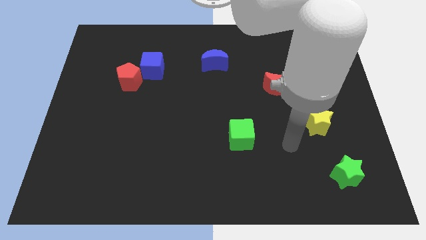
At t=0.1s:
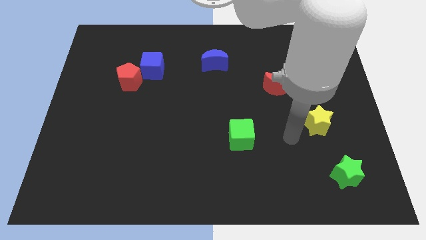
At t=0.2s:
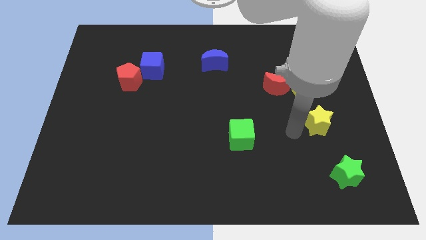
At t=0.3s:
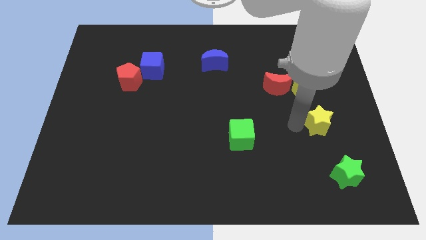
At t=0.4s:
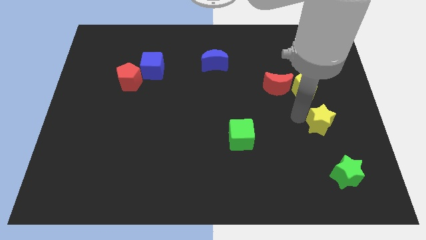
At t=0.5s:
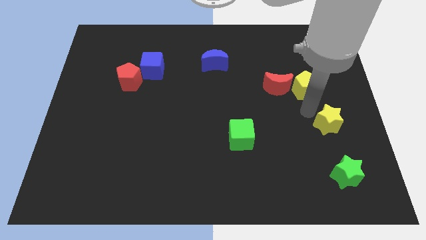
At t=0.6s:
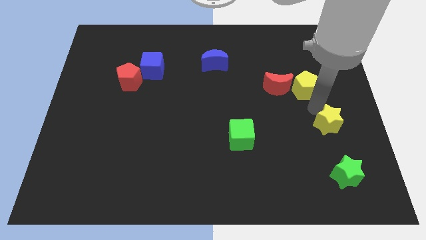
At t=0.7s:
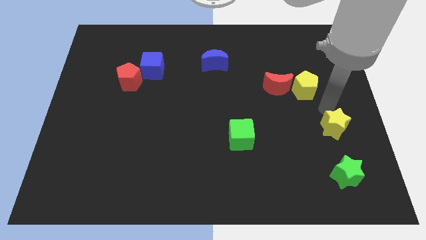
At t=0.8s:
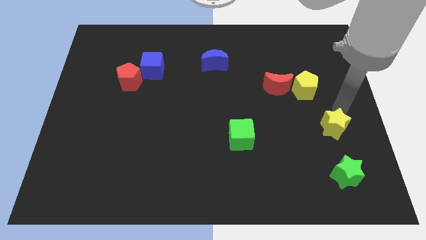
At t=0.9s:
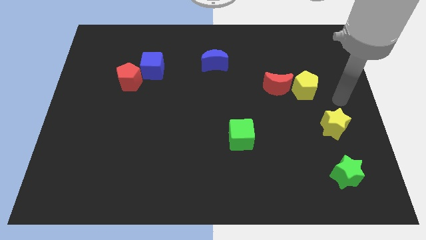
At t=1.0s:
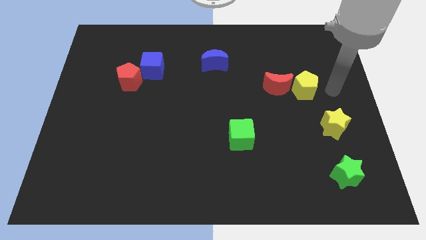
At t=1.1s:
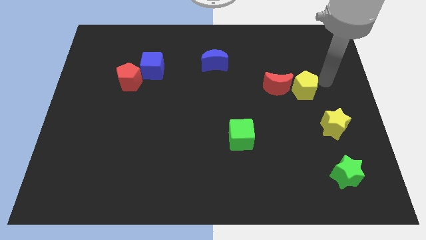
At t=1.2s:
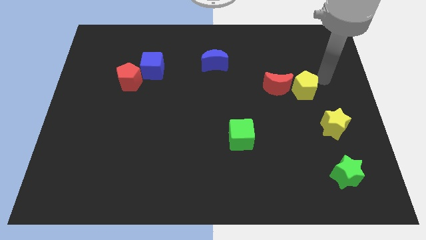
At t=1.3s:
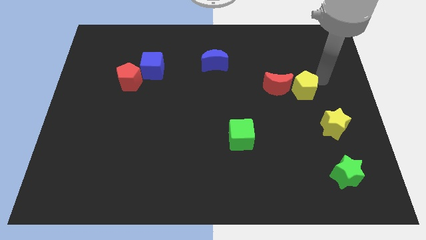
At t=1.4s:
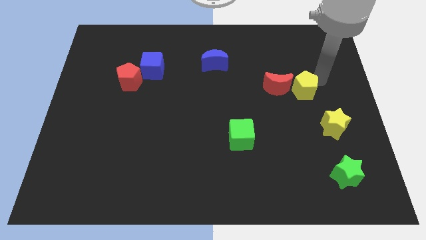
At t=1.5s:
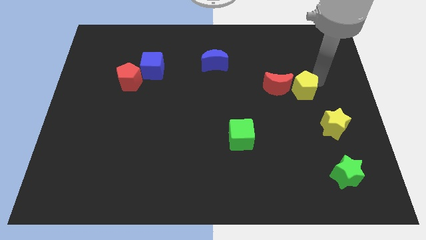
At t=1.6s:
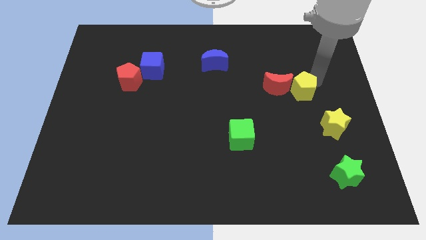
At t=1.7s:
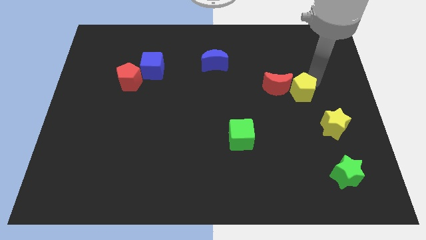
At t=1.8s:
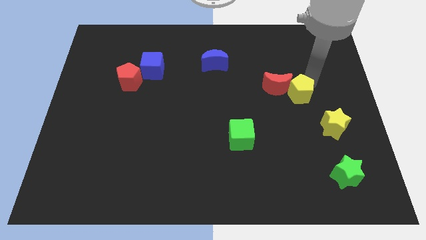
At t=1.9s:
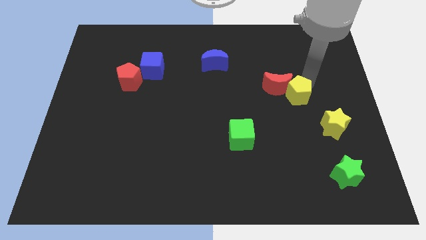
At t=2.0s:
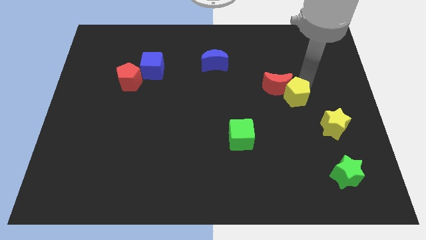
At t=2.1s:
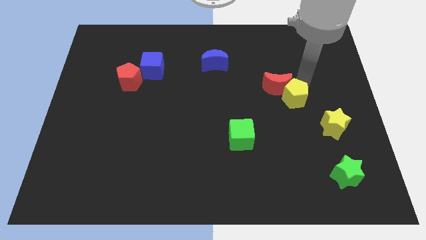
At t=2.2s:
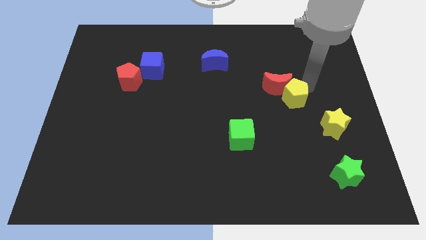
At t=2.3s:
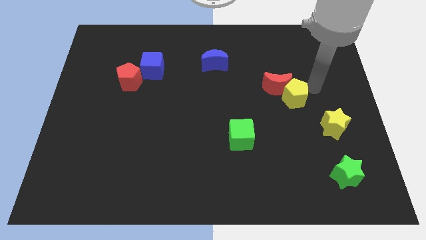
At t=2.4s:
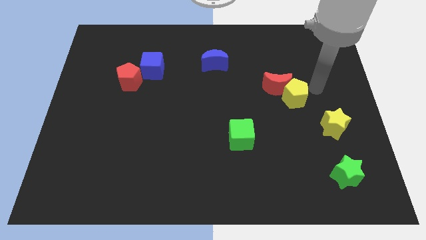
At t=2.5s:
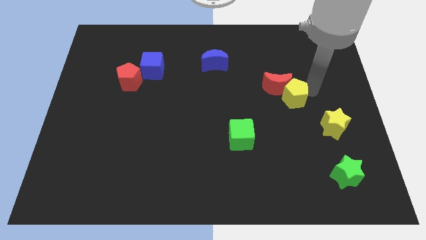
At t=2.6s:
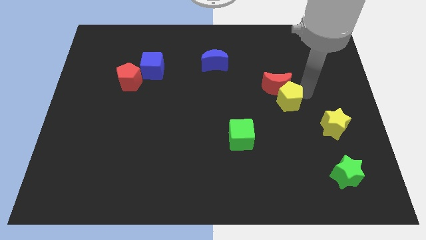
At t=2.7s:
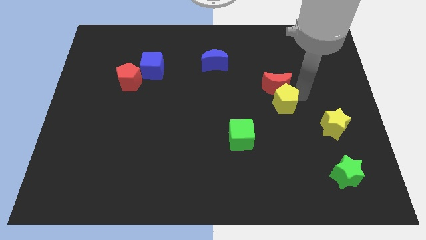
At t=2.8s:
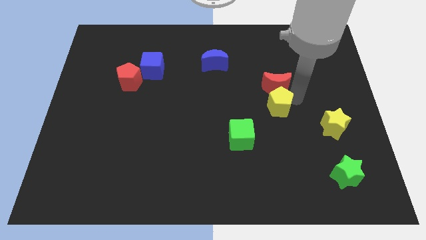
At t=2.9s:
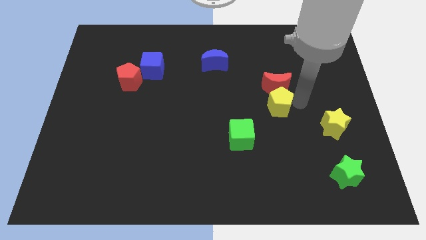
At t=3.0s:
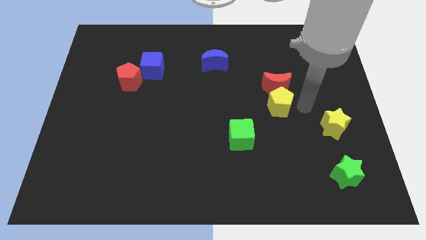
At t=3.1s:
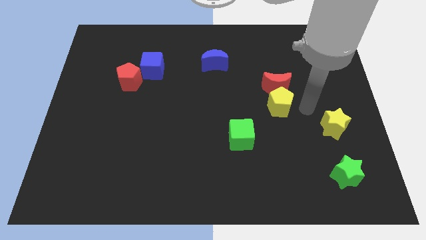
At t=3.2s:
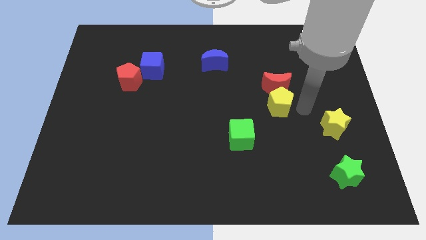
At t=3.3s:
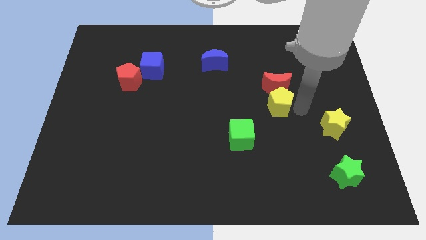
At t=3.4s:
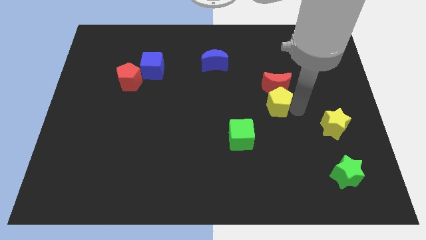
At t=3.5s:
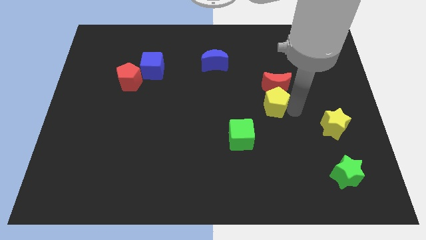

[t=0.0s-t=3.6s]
slide the yellow pentagon left a little bit

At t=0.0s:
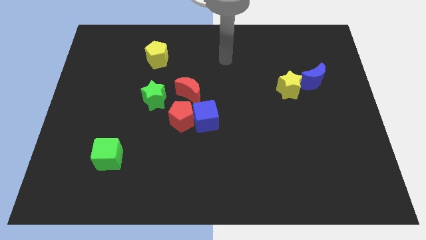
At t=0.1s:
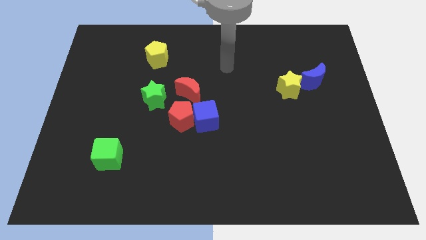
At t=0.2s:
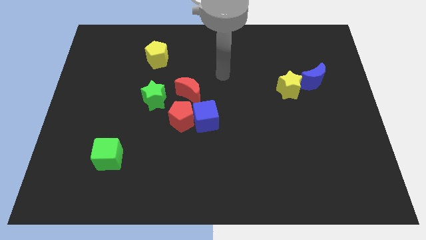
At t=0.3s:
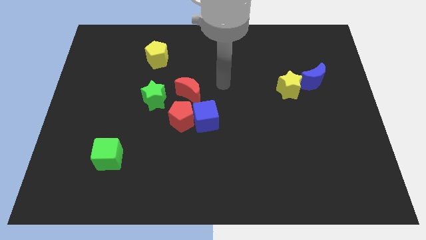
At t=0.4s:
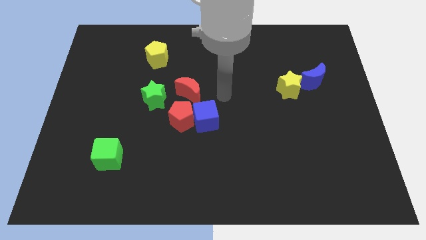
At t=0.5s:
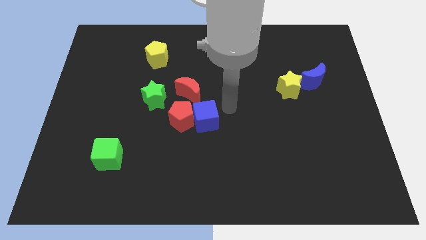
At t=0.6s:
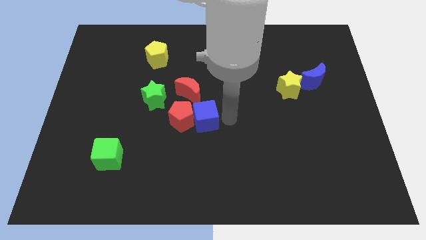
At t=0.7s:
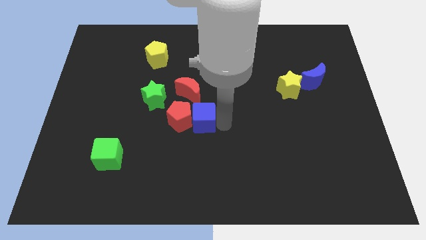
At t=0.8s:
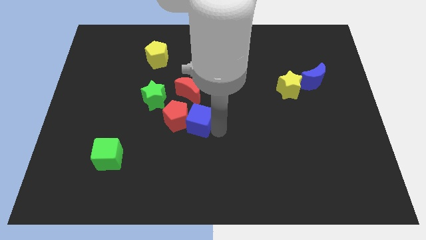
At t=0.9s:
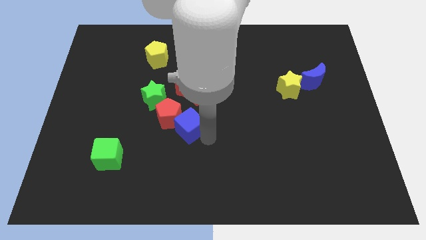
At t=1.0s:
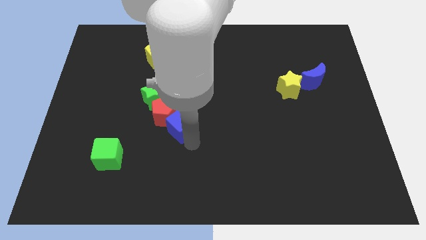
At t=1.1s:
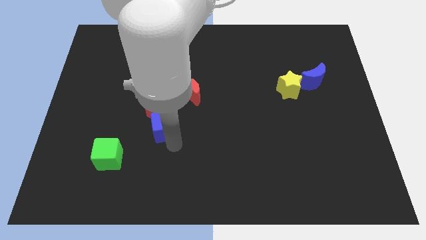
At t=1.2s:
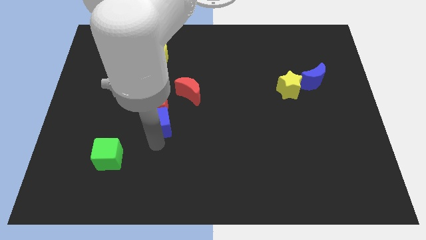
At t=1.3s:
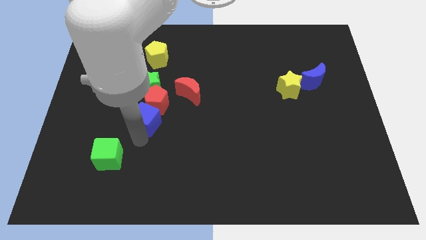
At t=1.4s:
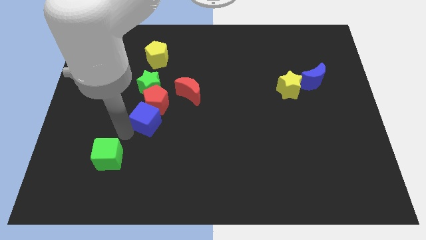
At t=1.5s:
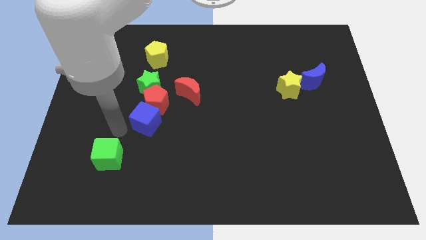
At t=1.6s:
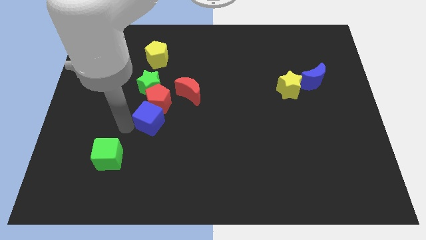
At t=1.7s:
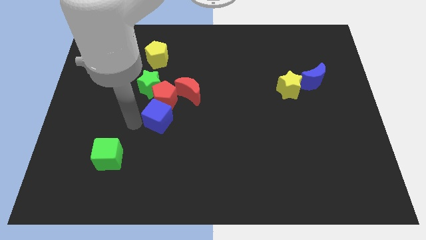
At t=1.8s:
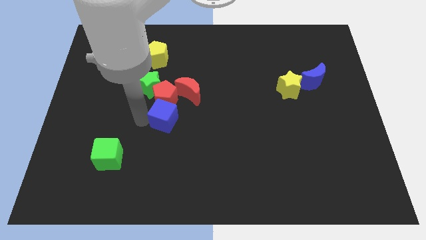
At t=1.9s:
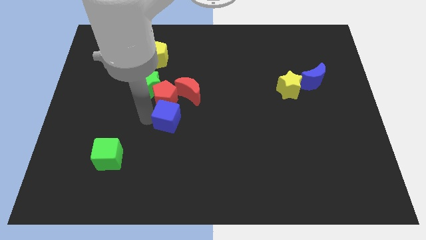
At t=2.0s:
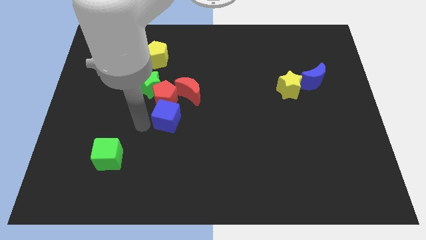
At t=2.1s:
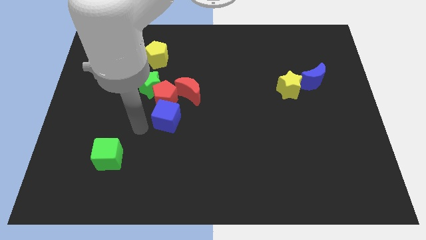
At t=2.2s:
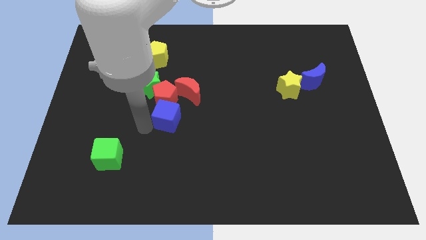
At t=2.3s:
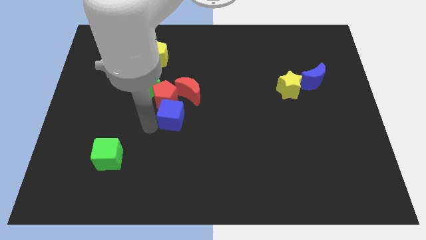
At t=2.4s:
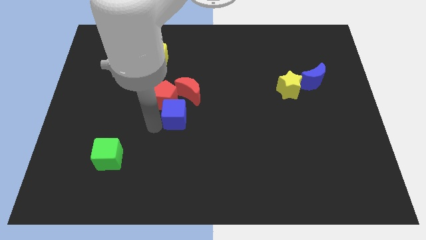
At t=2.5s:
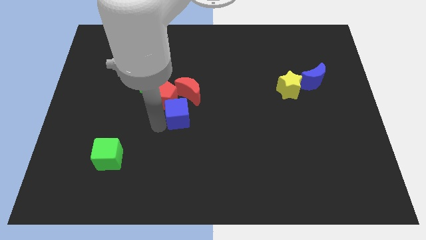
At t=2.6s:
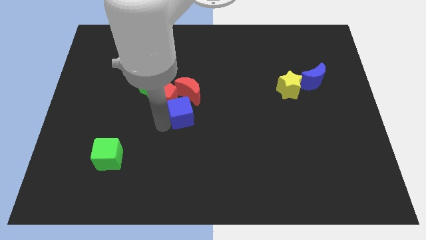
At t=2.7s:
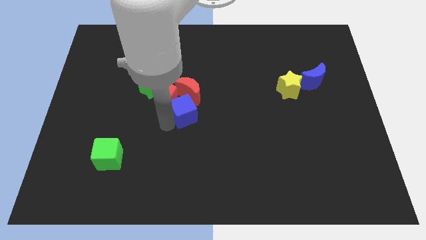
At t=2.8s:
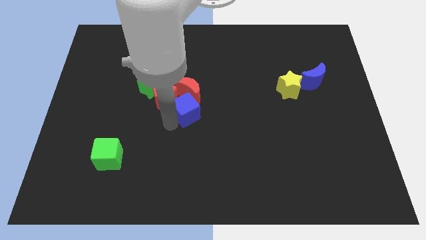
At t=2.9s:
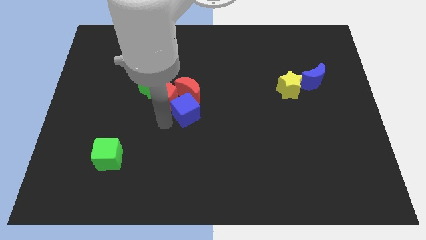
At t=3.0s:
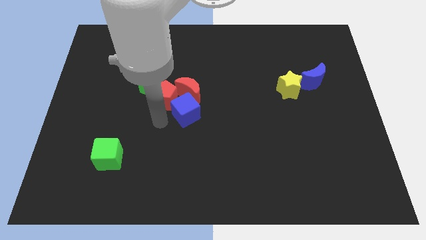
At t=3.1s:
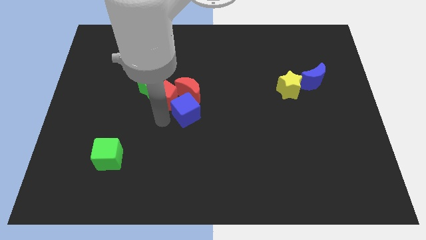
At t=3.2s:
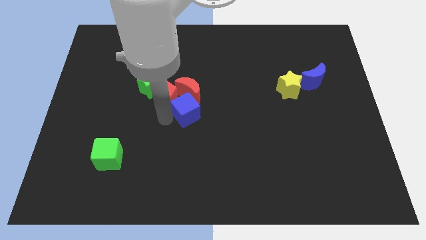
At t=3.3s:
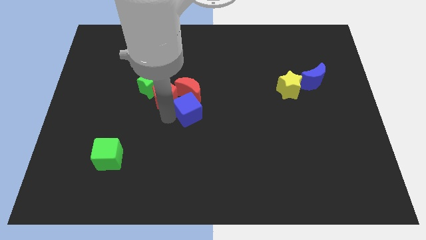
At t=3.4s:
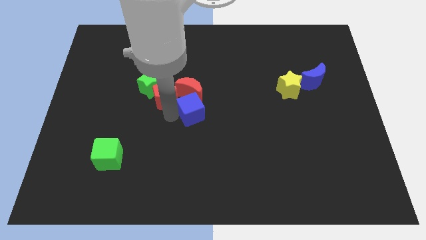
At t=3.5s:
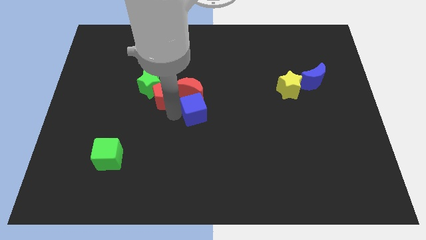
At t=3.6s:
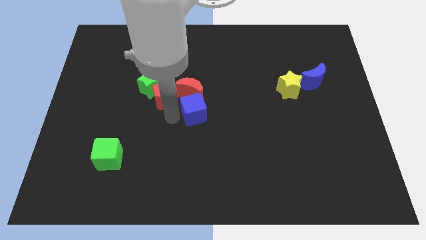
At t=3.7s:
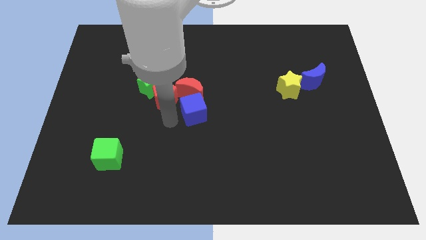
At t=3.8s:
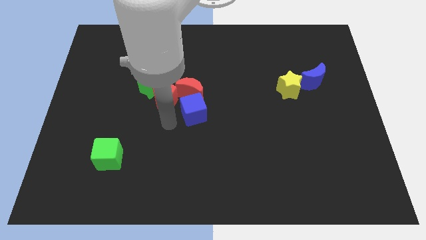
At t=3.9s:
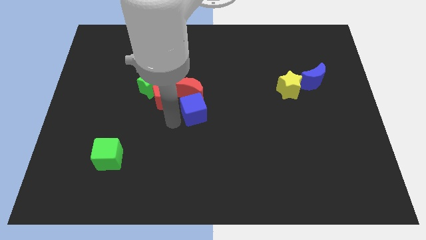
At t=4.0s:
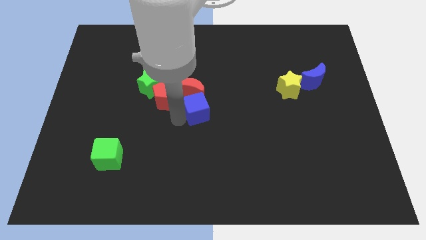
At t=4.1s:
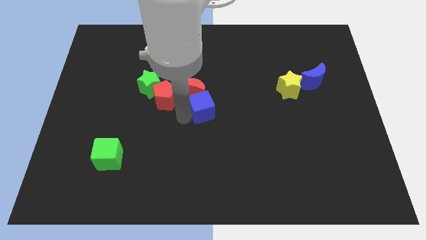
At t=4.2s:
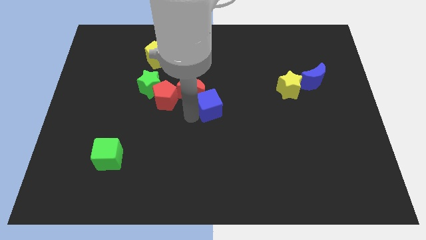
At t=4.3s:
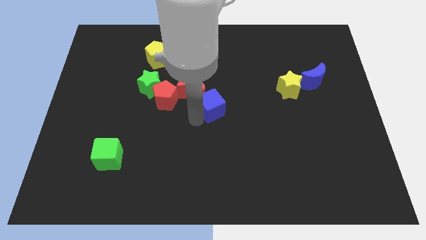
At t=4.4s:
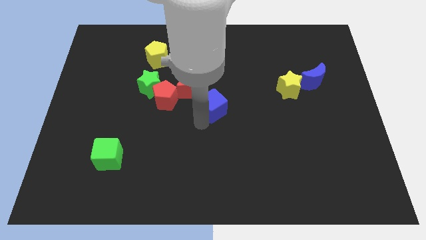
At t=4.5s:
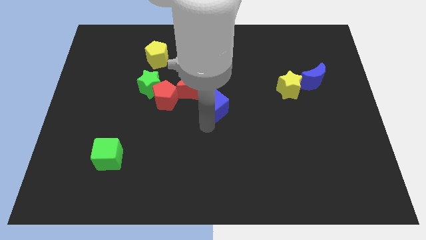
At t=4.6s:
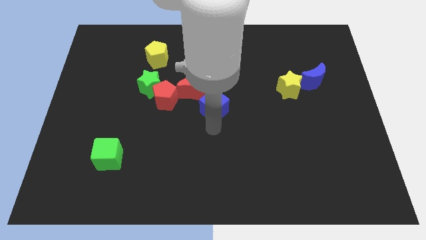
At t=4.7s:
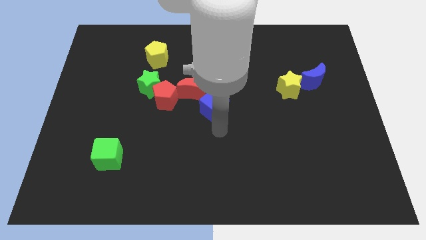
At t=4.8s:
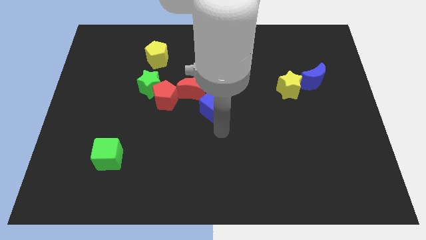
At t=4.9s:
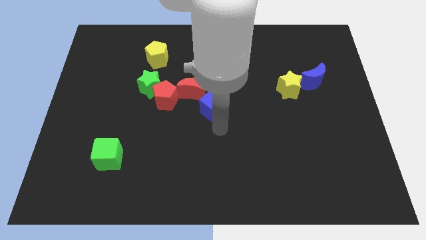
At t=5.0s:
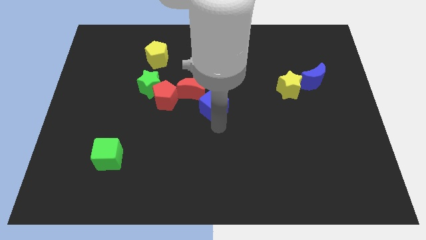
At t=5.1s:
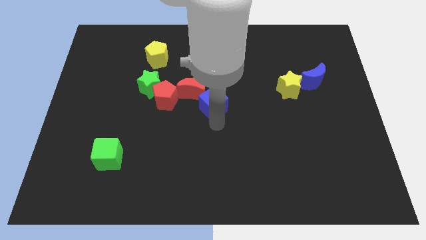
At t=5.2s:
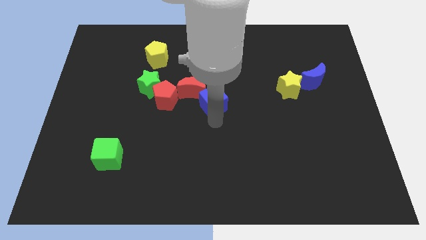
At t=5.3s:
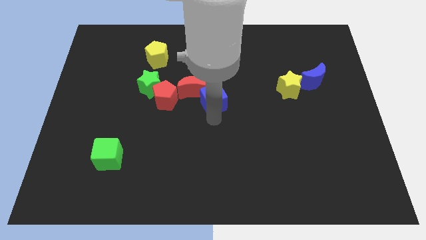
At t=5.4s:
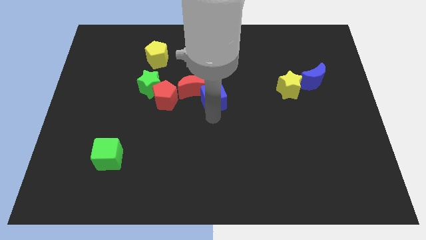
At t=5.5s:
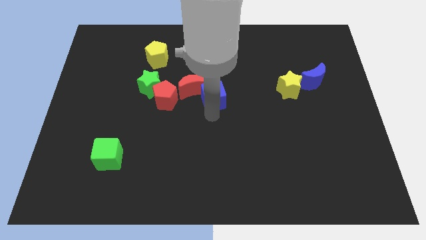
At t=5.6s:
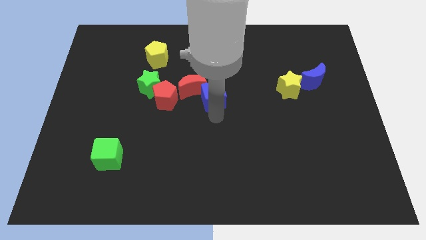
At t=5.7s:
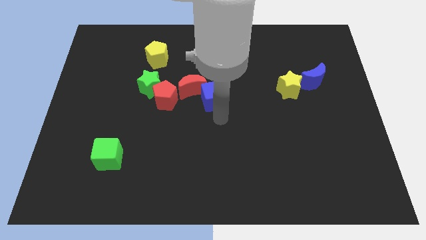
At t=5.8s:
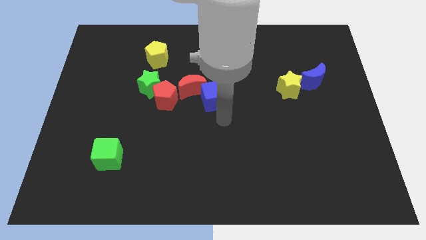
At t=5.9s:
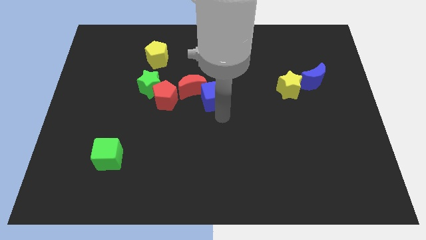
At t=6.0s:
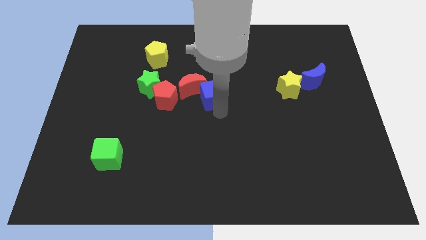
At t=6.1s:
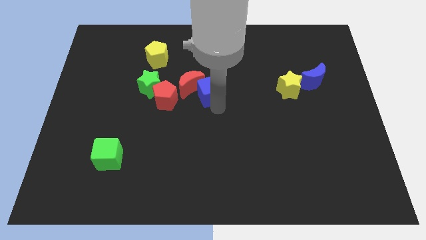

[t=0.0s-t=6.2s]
move the blue cube a bit up
